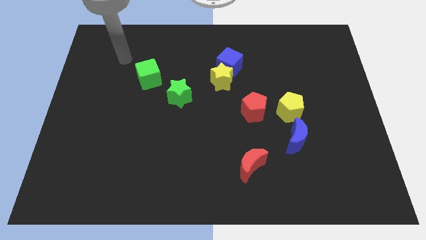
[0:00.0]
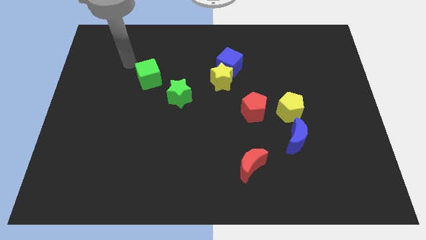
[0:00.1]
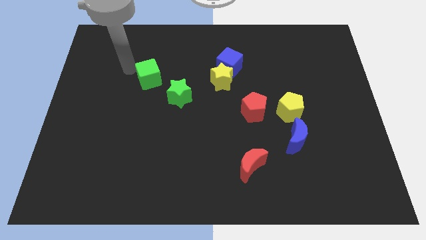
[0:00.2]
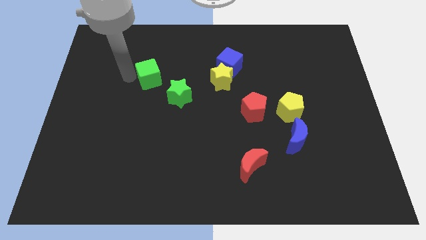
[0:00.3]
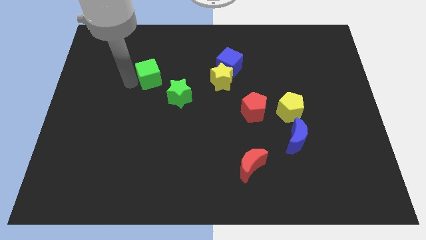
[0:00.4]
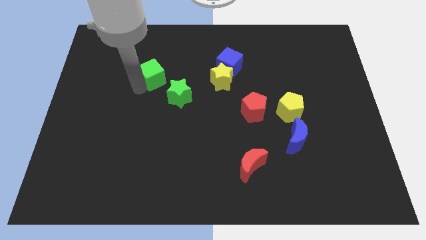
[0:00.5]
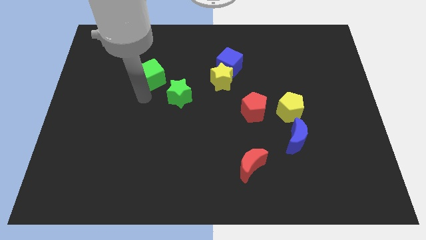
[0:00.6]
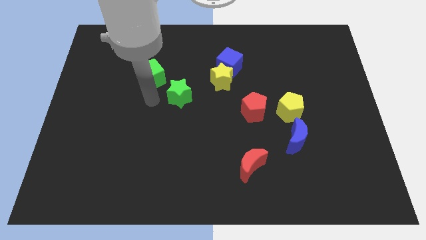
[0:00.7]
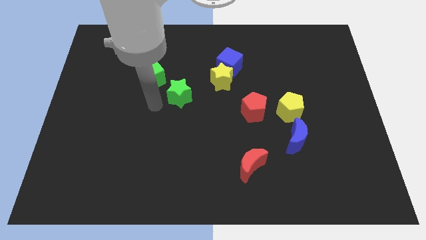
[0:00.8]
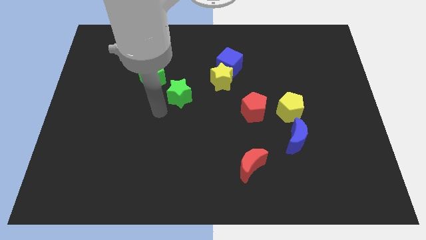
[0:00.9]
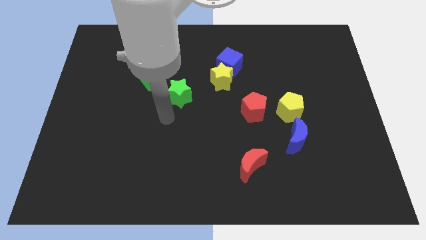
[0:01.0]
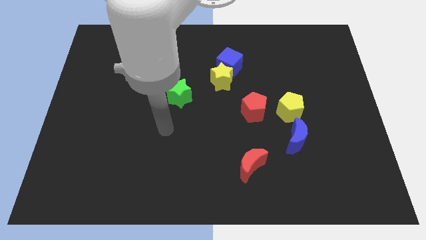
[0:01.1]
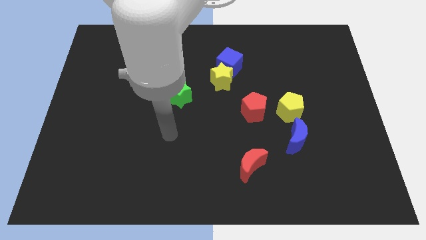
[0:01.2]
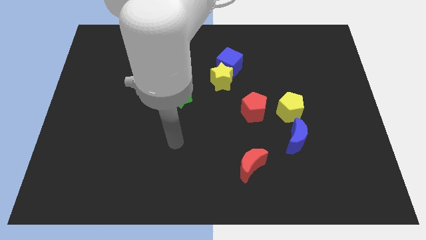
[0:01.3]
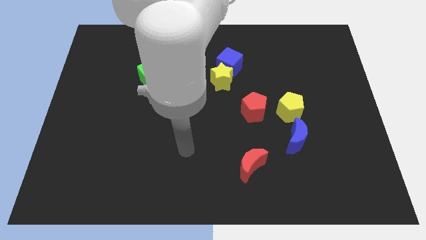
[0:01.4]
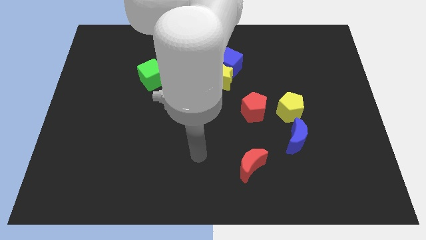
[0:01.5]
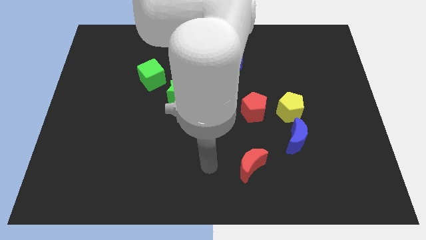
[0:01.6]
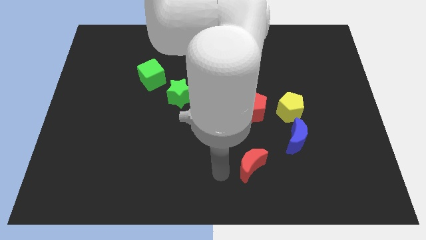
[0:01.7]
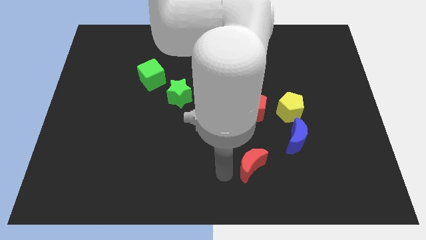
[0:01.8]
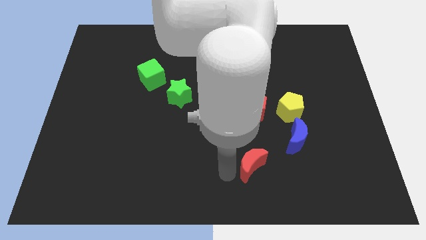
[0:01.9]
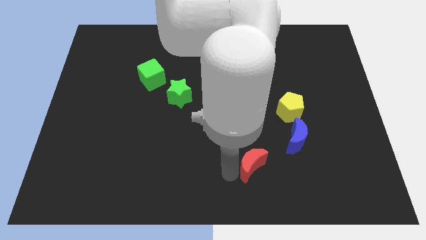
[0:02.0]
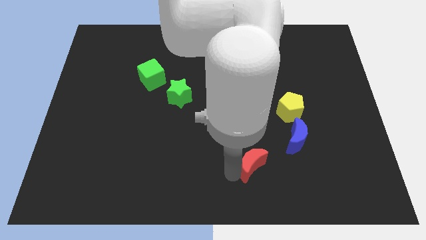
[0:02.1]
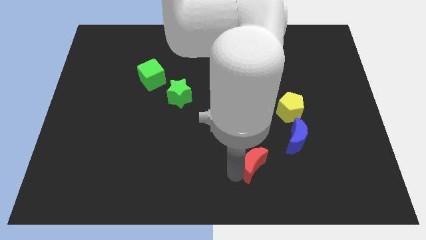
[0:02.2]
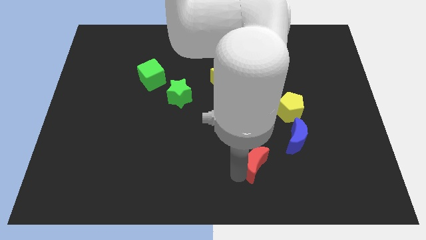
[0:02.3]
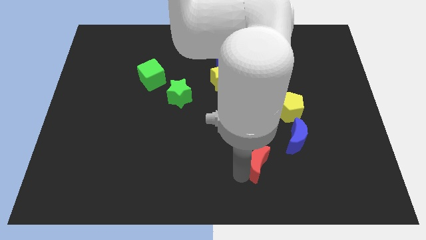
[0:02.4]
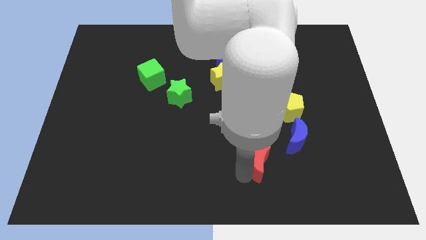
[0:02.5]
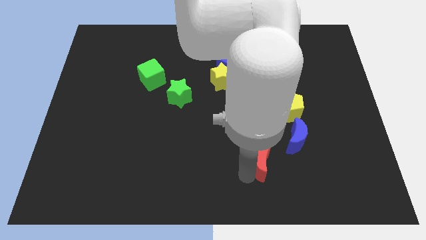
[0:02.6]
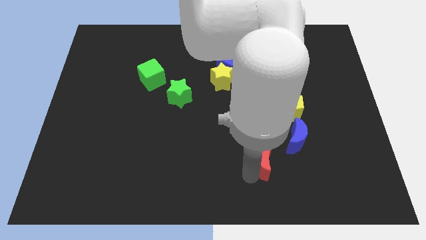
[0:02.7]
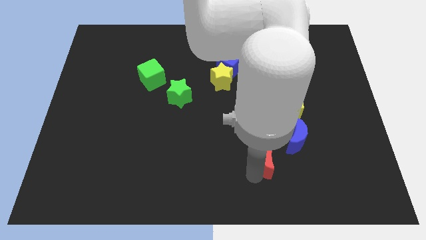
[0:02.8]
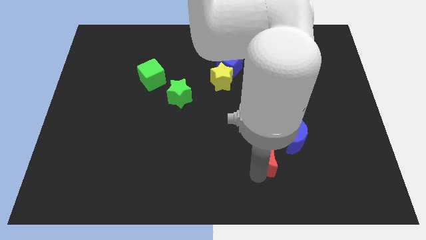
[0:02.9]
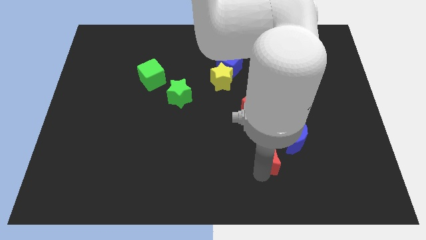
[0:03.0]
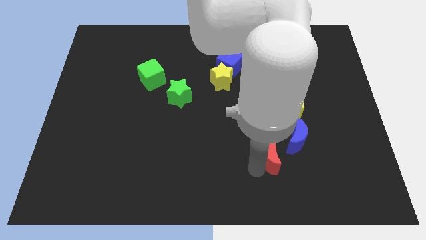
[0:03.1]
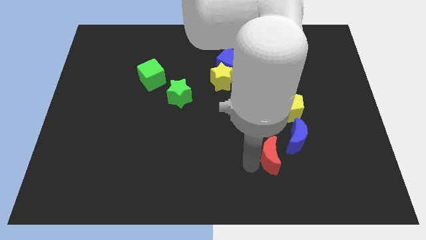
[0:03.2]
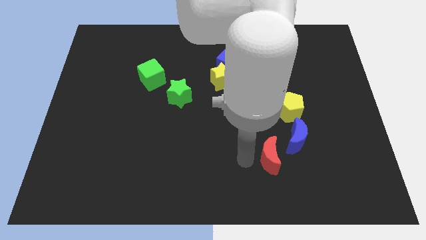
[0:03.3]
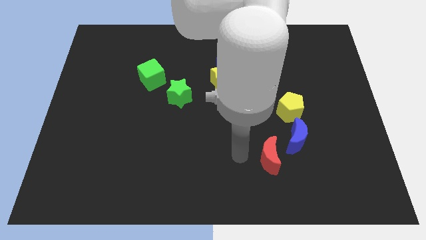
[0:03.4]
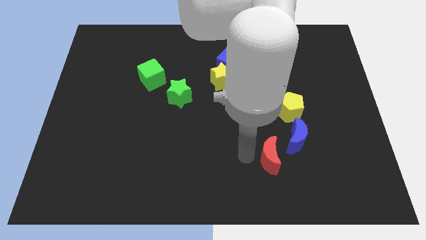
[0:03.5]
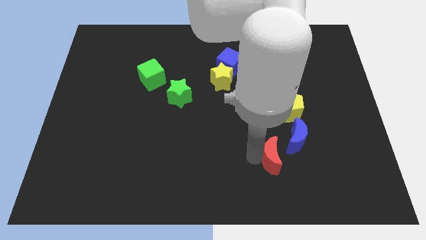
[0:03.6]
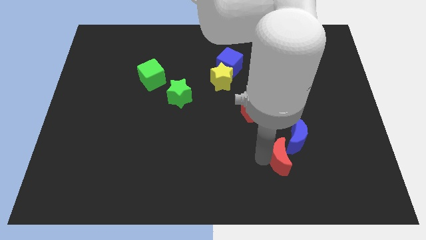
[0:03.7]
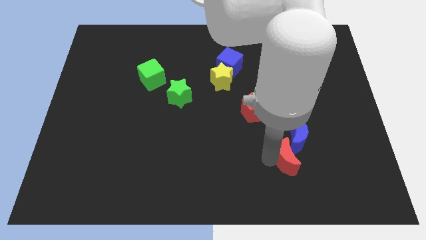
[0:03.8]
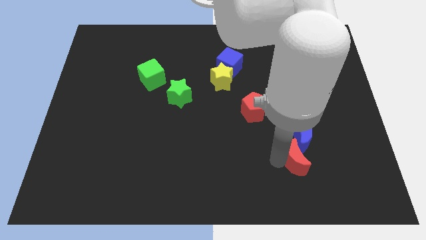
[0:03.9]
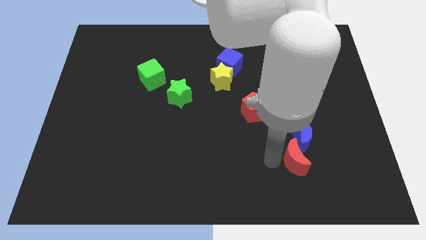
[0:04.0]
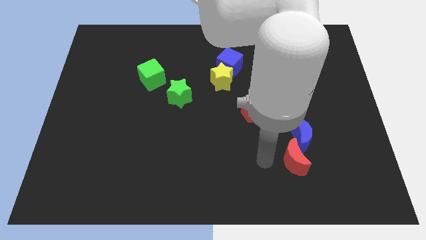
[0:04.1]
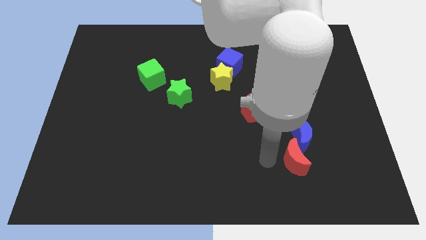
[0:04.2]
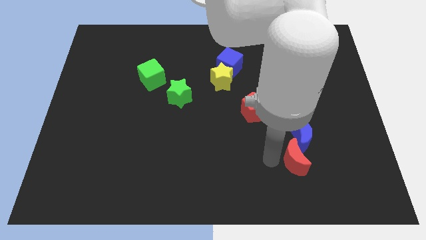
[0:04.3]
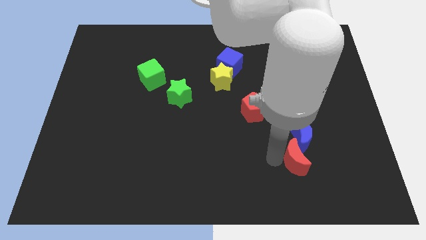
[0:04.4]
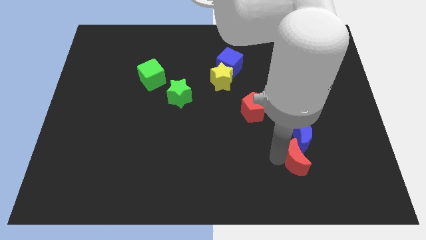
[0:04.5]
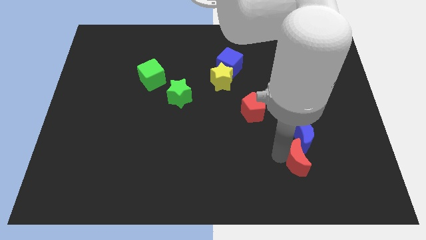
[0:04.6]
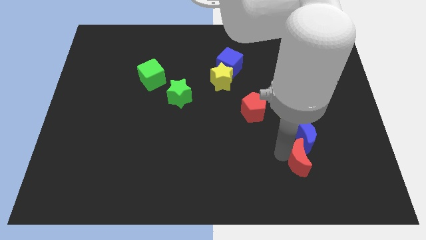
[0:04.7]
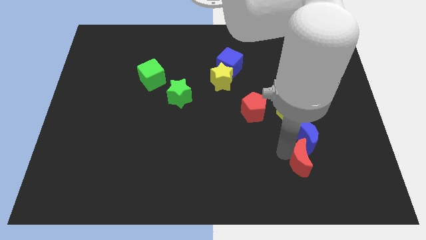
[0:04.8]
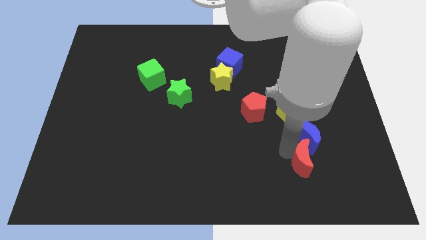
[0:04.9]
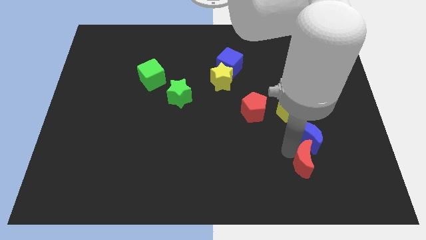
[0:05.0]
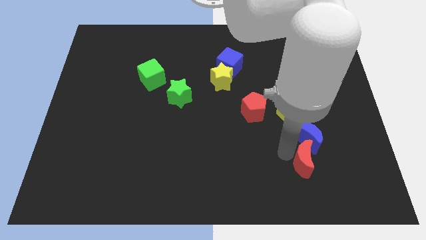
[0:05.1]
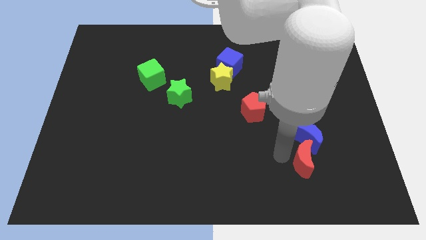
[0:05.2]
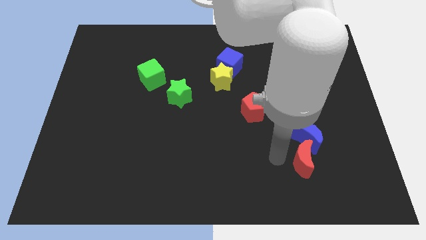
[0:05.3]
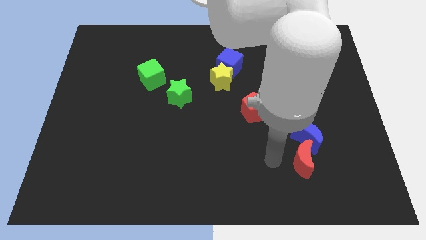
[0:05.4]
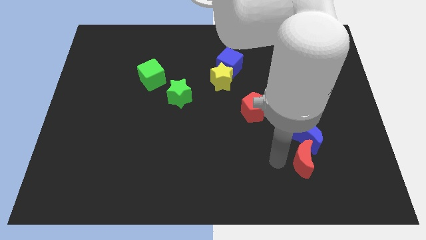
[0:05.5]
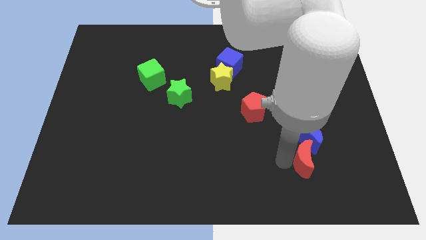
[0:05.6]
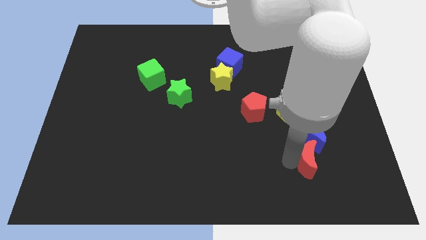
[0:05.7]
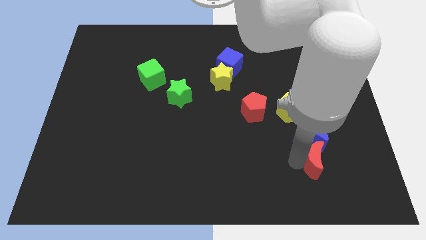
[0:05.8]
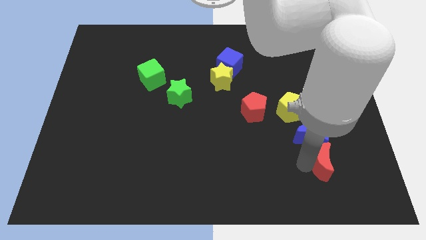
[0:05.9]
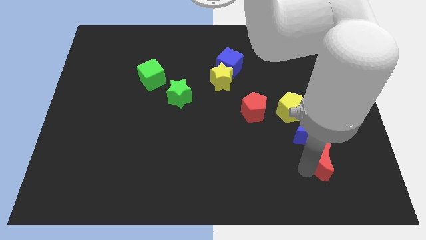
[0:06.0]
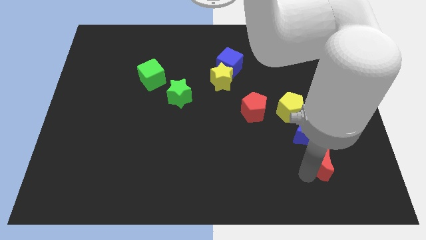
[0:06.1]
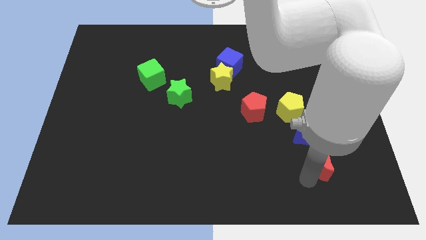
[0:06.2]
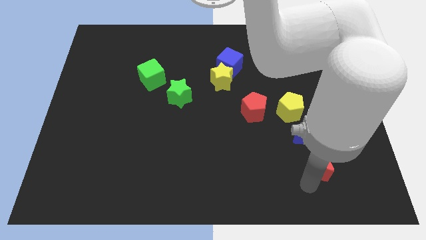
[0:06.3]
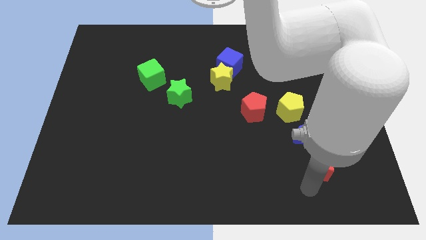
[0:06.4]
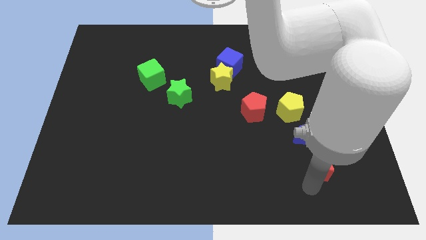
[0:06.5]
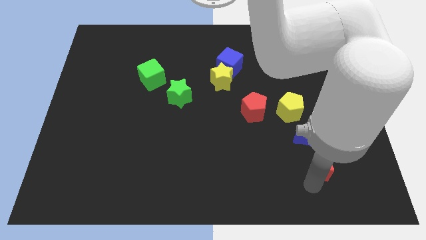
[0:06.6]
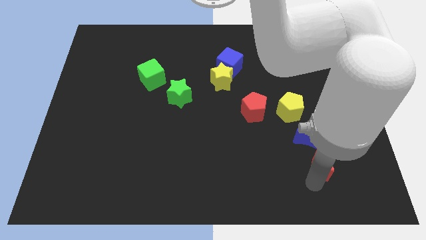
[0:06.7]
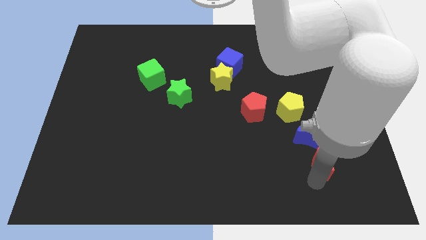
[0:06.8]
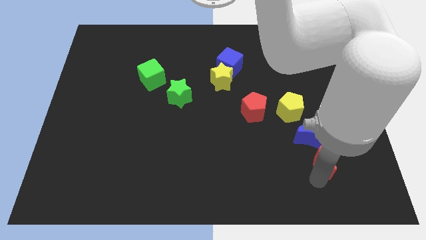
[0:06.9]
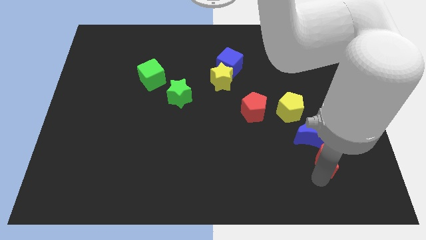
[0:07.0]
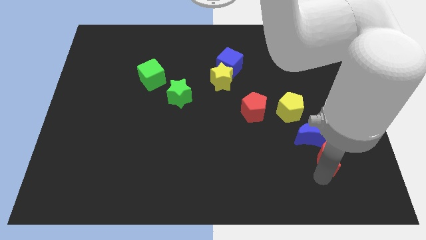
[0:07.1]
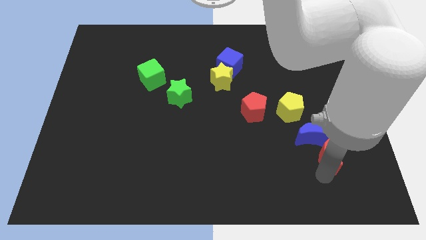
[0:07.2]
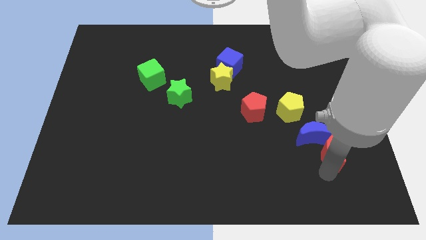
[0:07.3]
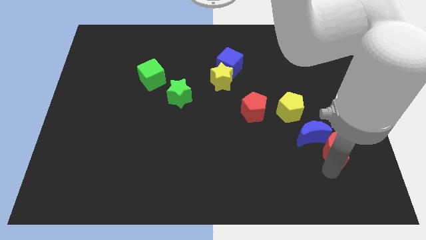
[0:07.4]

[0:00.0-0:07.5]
push the red moon to the right side of the blue moon

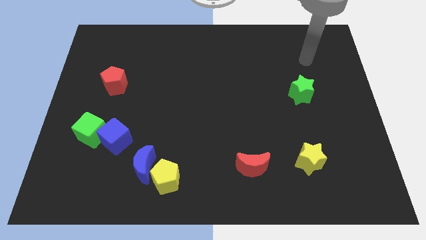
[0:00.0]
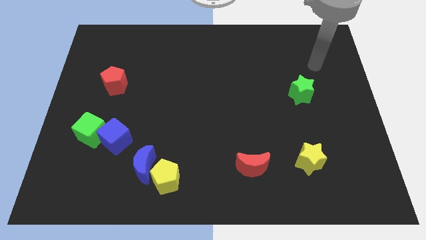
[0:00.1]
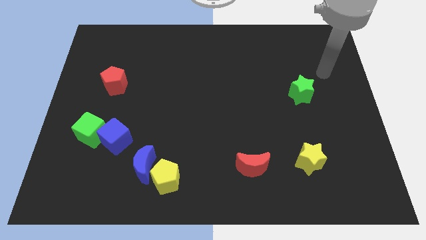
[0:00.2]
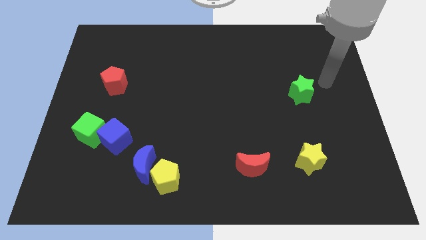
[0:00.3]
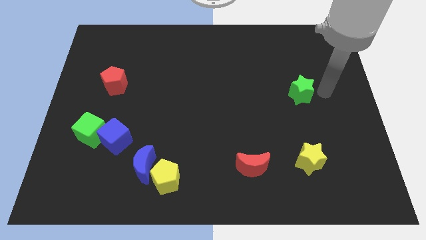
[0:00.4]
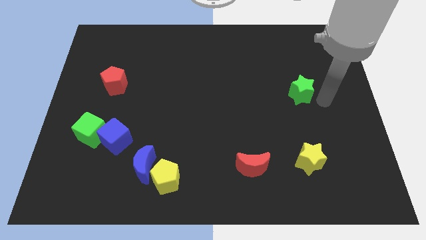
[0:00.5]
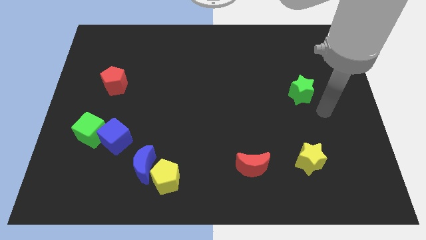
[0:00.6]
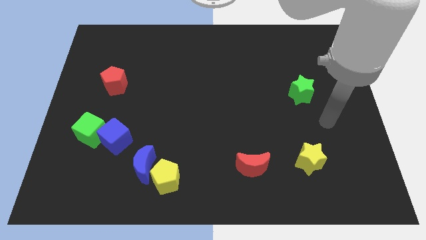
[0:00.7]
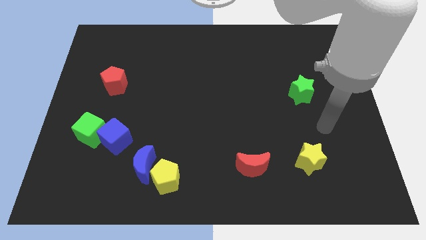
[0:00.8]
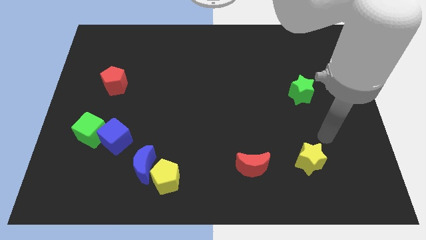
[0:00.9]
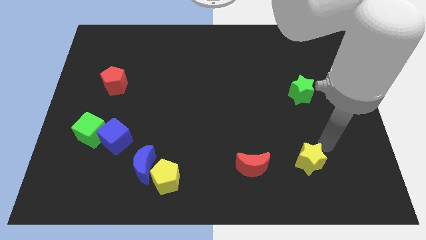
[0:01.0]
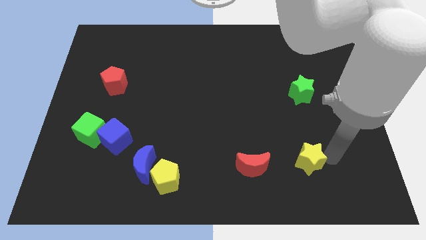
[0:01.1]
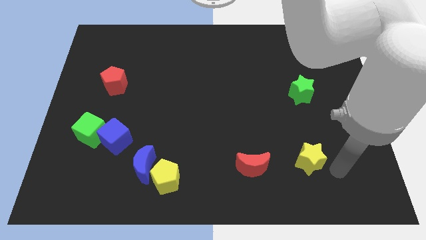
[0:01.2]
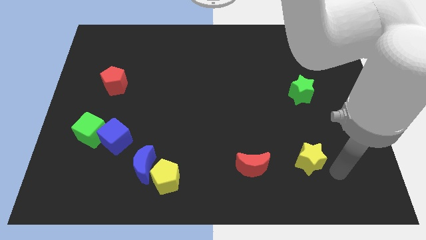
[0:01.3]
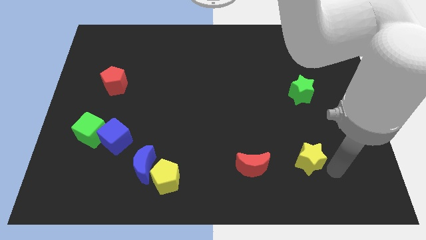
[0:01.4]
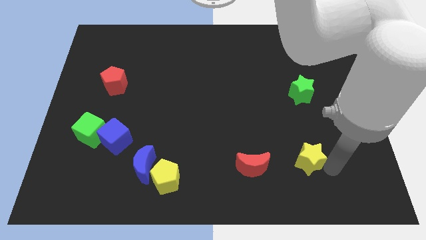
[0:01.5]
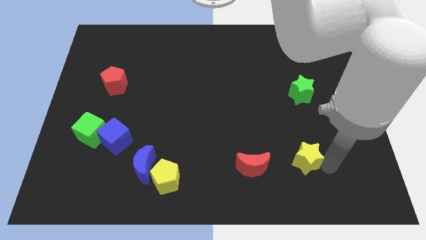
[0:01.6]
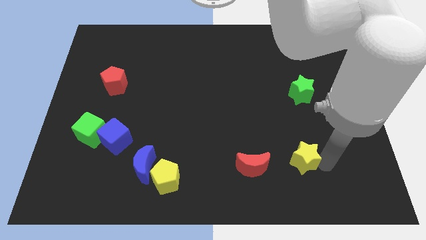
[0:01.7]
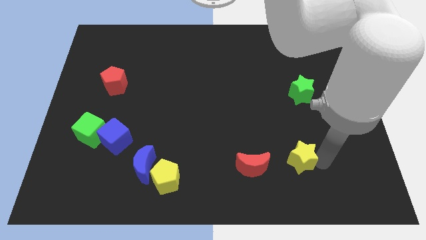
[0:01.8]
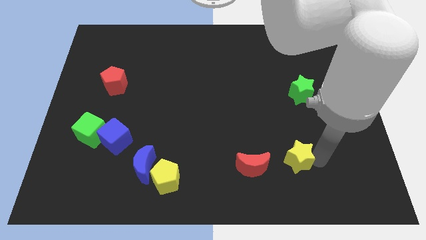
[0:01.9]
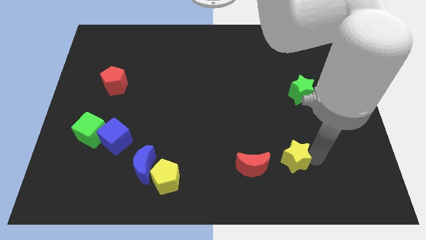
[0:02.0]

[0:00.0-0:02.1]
push the yellow star to the top right side of the red moon
